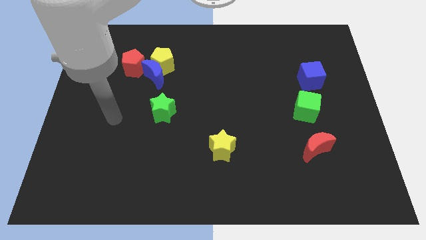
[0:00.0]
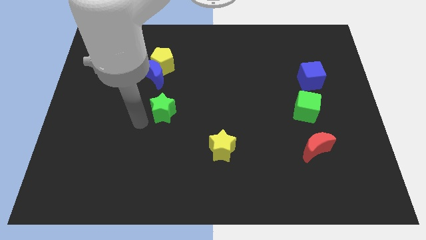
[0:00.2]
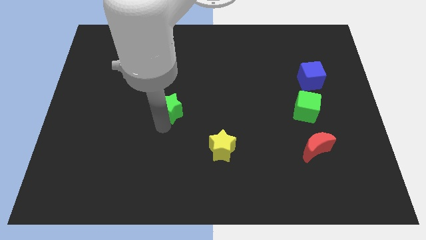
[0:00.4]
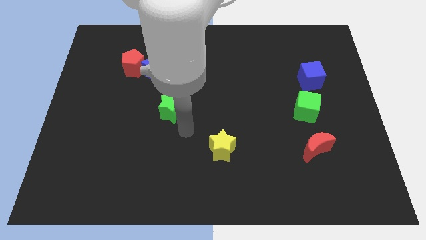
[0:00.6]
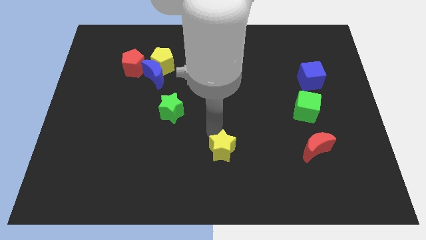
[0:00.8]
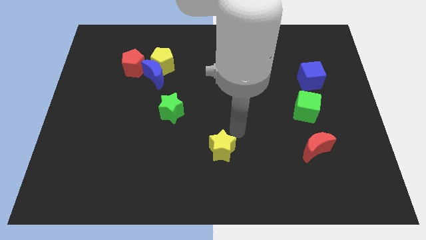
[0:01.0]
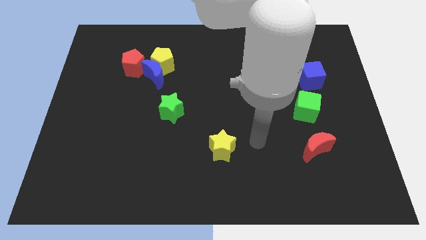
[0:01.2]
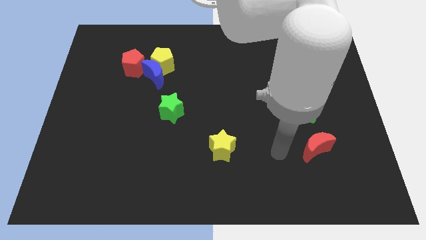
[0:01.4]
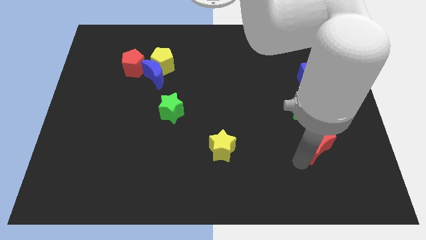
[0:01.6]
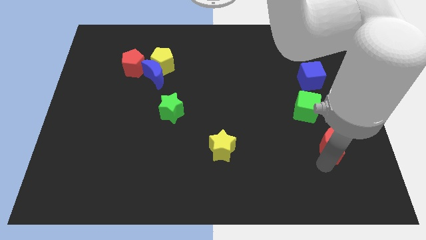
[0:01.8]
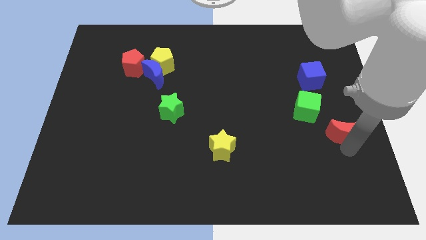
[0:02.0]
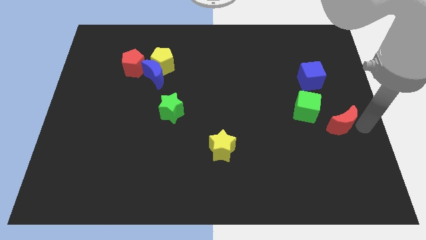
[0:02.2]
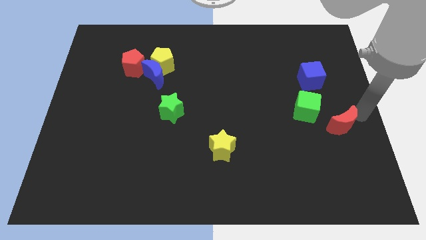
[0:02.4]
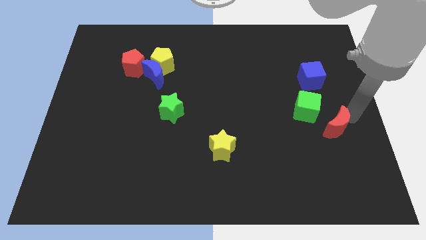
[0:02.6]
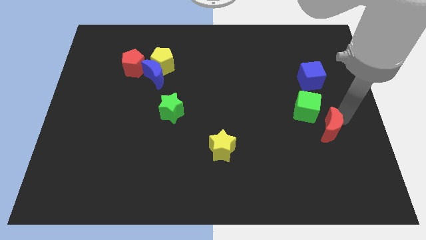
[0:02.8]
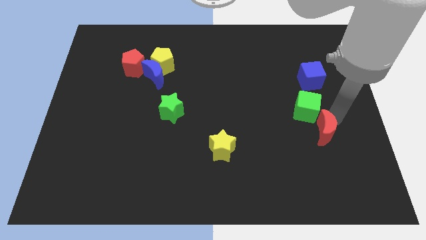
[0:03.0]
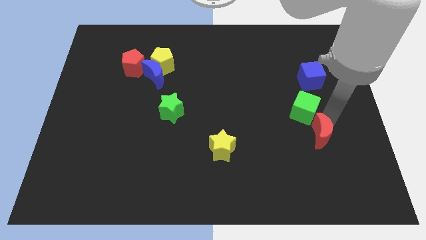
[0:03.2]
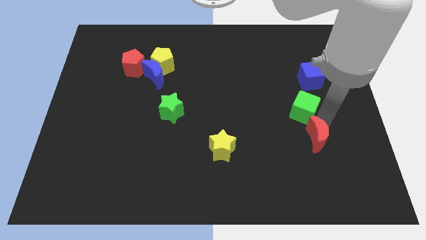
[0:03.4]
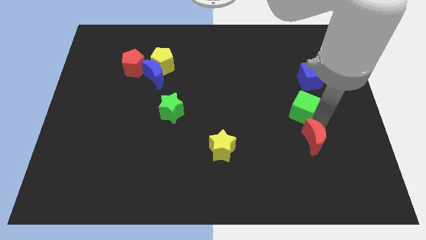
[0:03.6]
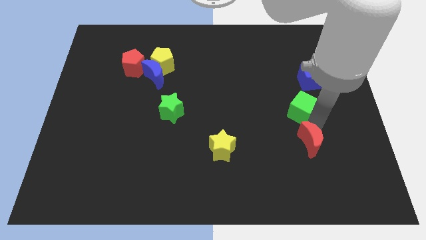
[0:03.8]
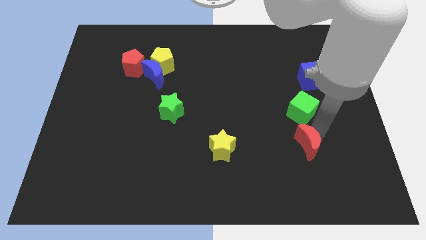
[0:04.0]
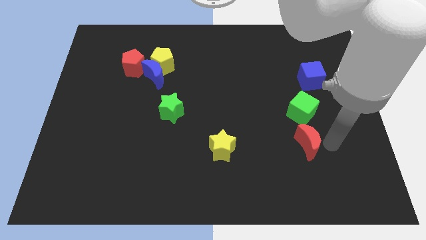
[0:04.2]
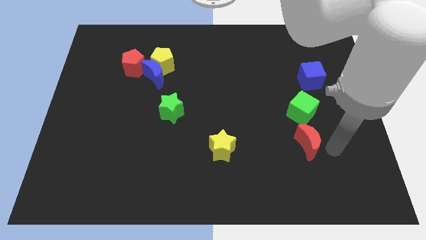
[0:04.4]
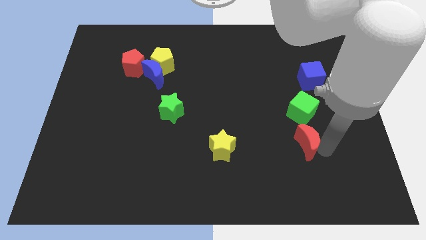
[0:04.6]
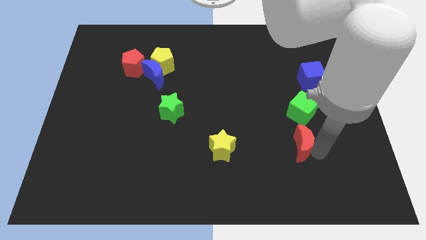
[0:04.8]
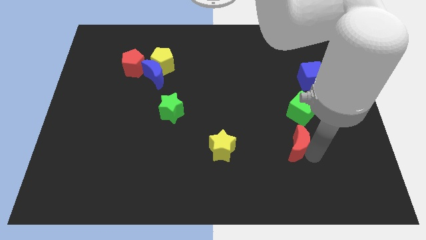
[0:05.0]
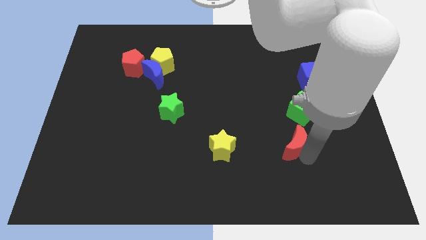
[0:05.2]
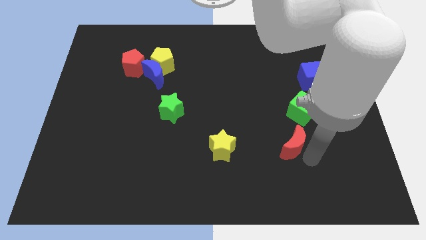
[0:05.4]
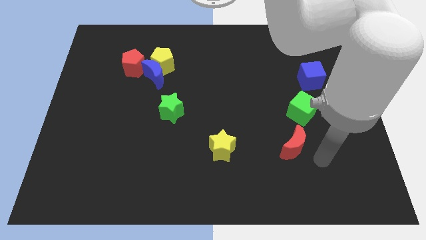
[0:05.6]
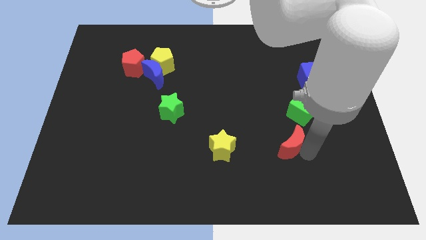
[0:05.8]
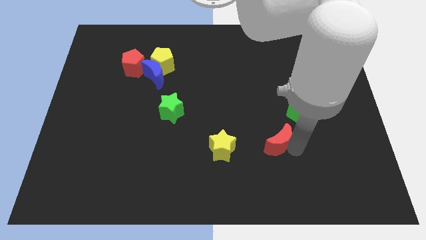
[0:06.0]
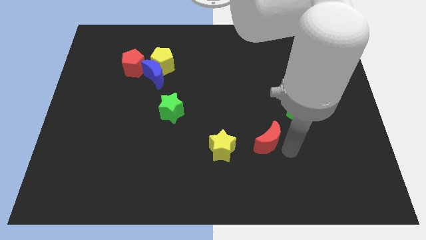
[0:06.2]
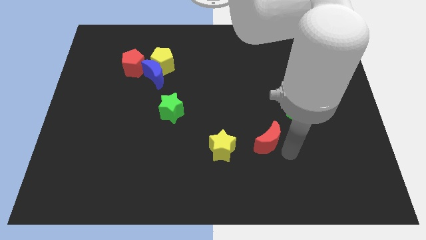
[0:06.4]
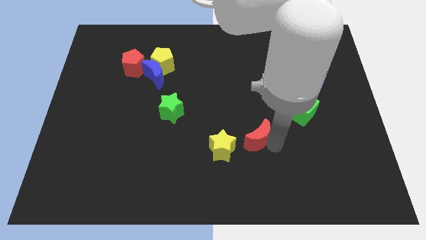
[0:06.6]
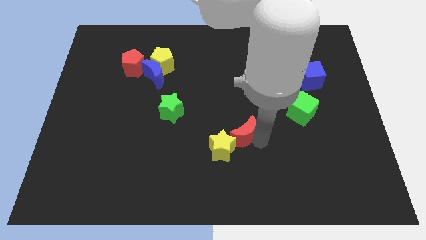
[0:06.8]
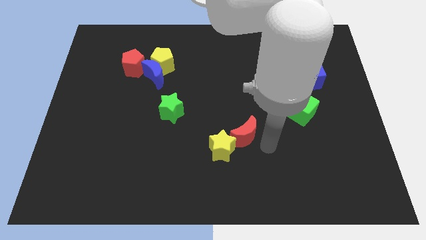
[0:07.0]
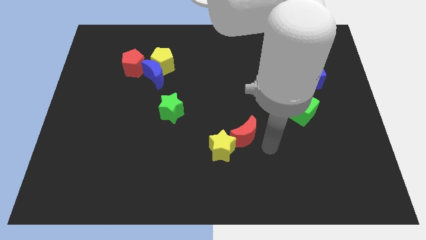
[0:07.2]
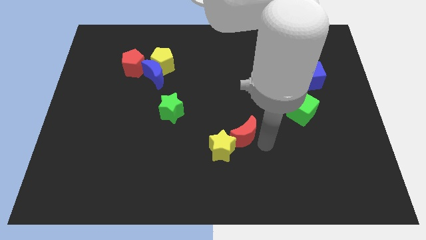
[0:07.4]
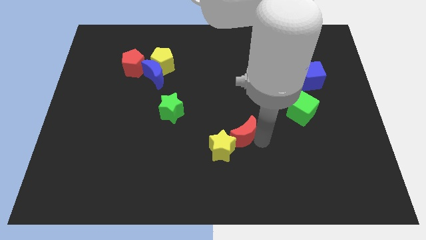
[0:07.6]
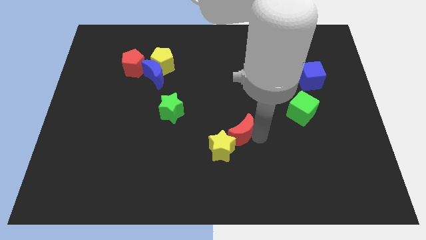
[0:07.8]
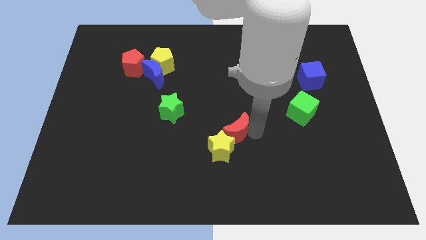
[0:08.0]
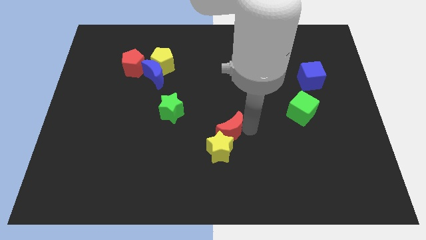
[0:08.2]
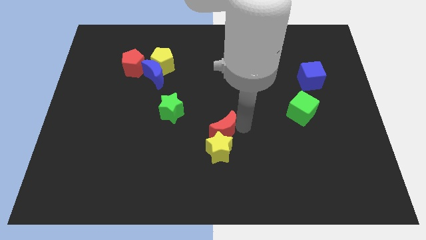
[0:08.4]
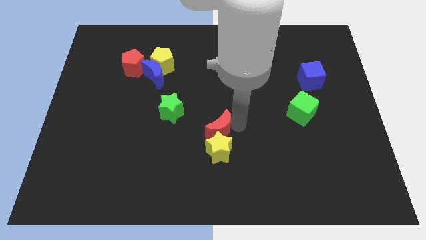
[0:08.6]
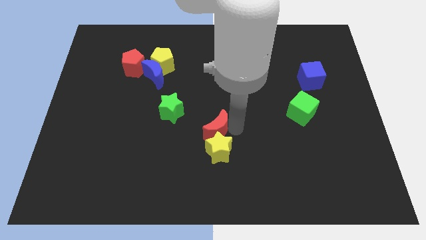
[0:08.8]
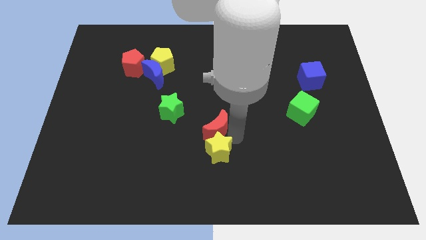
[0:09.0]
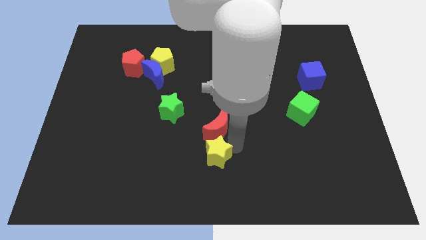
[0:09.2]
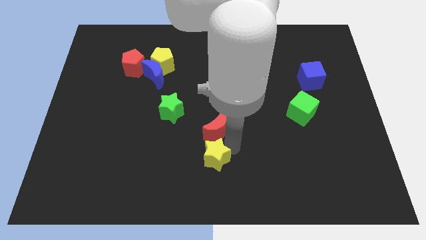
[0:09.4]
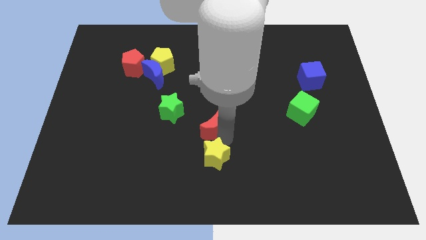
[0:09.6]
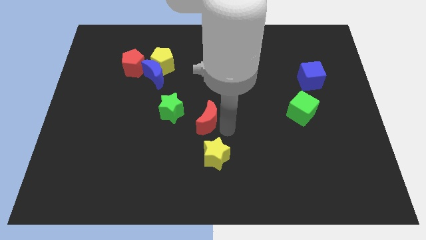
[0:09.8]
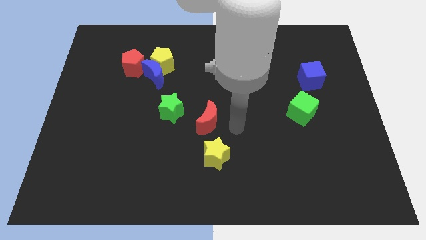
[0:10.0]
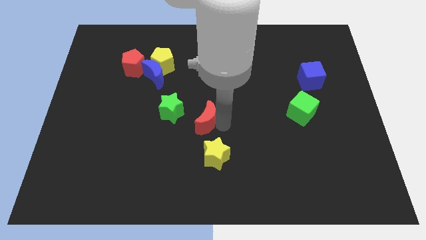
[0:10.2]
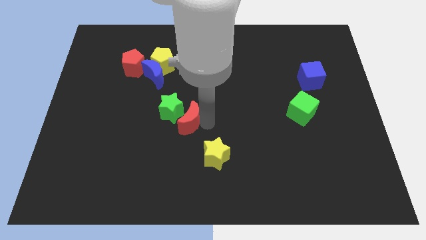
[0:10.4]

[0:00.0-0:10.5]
slide the red moon towards the green star

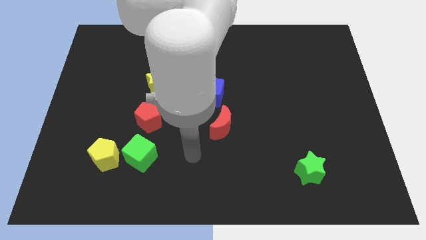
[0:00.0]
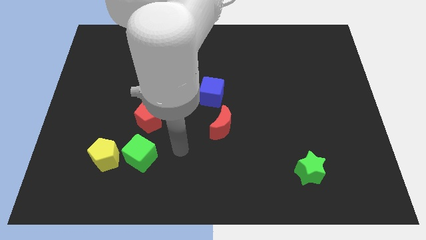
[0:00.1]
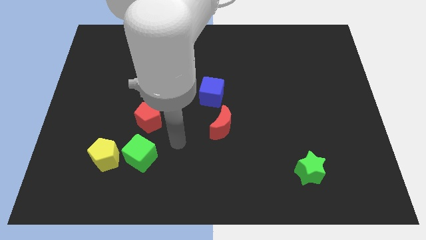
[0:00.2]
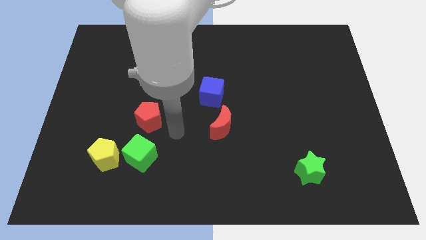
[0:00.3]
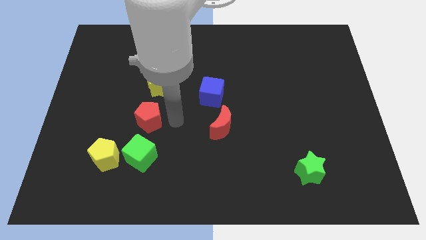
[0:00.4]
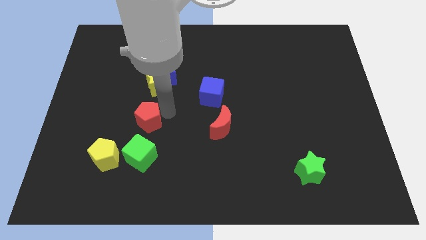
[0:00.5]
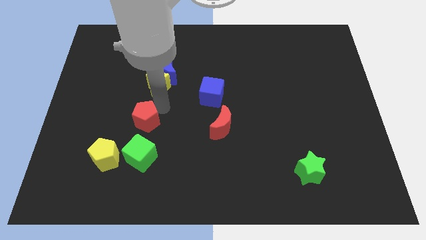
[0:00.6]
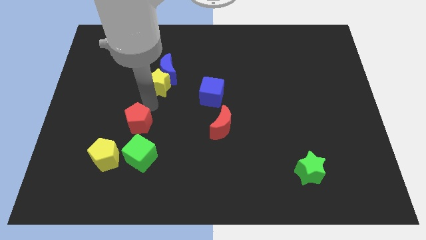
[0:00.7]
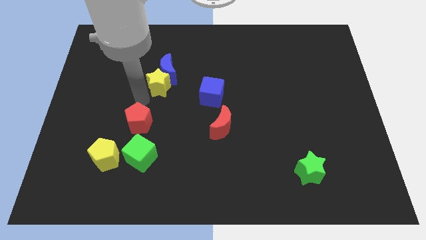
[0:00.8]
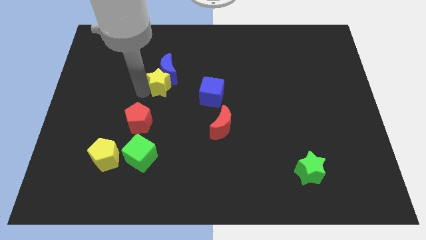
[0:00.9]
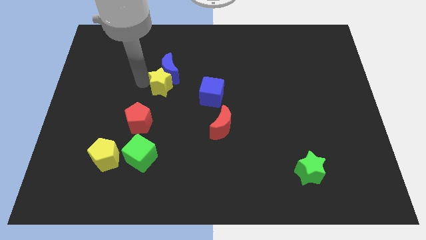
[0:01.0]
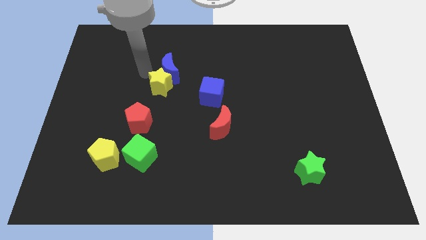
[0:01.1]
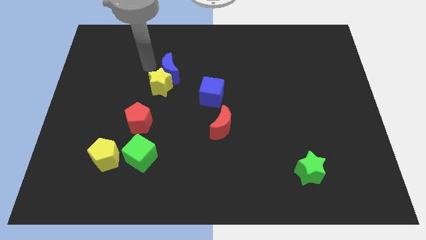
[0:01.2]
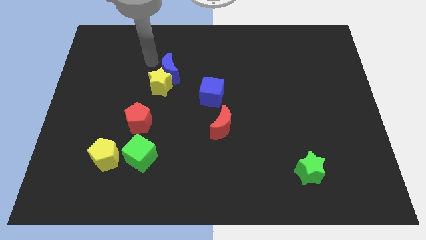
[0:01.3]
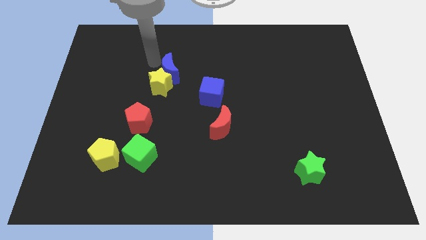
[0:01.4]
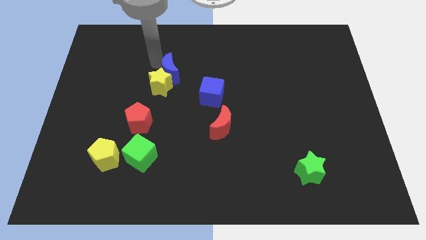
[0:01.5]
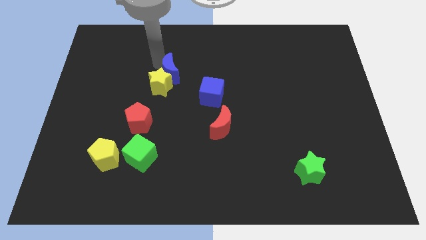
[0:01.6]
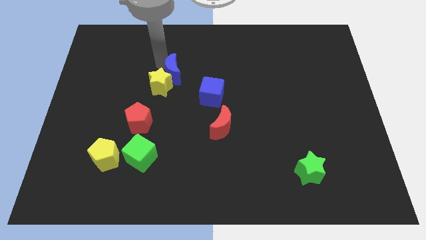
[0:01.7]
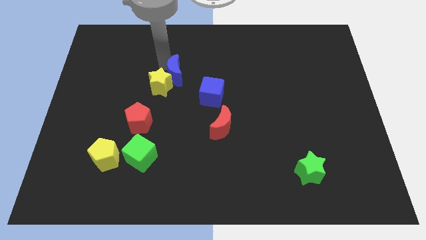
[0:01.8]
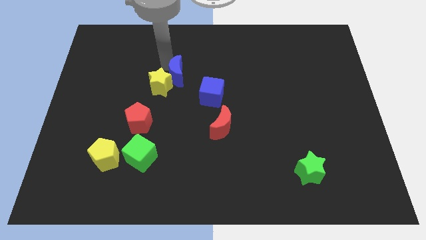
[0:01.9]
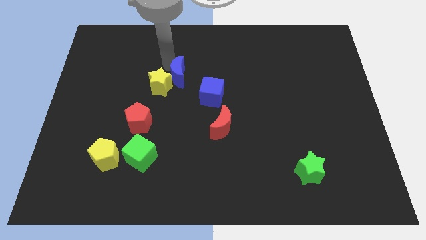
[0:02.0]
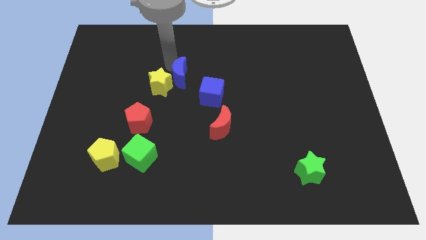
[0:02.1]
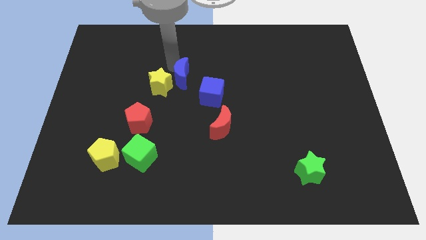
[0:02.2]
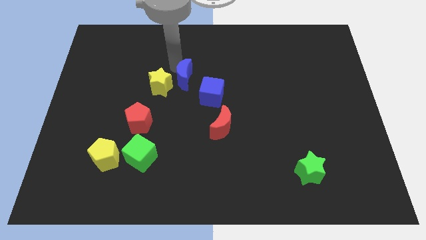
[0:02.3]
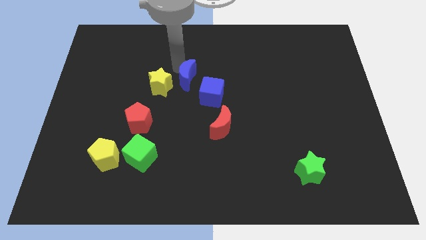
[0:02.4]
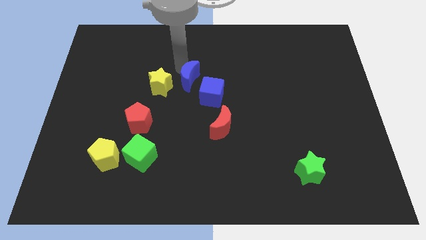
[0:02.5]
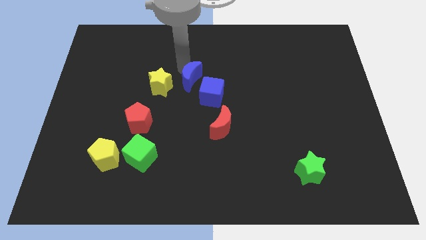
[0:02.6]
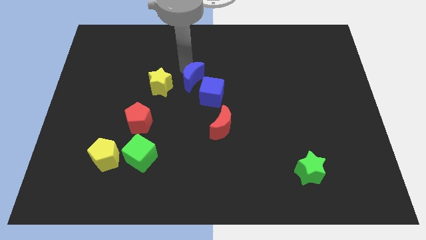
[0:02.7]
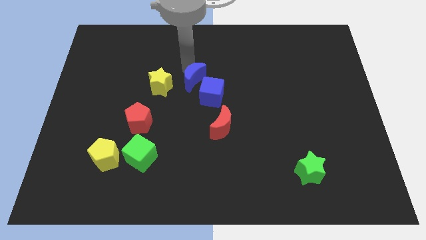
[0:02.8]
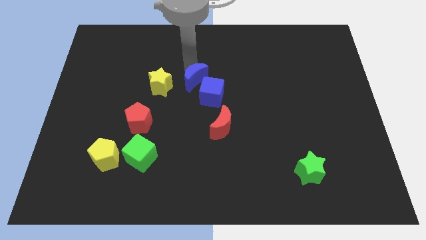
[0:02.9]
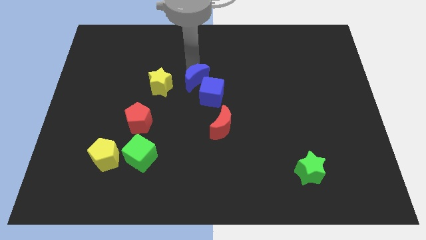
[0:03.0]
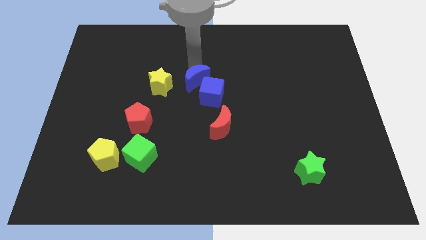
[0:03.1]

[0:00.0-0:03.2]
put the blue moon next to the blue cube
